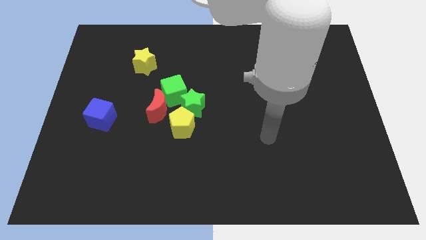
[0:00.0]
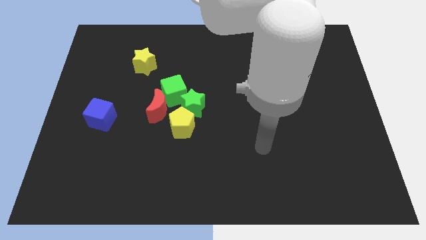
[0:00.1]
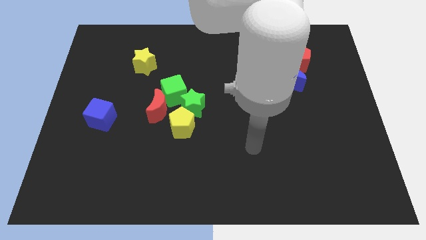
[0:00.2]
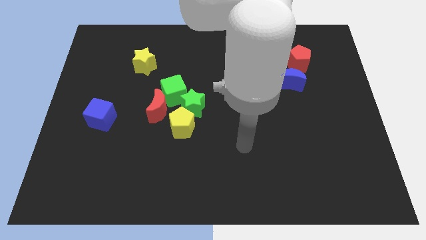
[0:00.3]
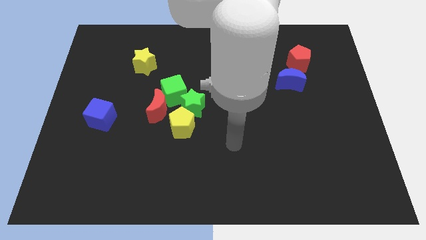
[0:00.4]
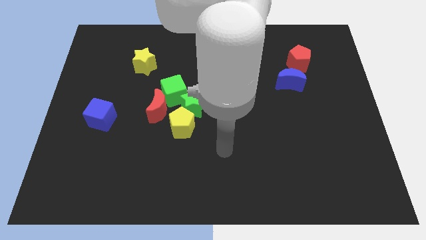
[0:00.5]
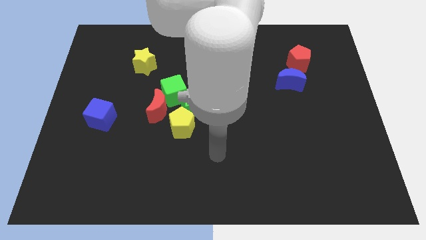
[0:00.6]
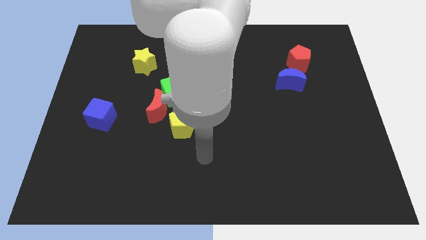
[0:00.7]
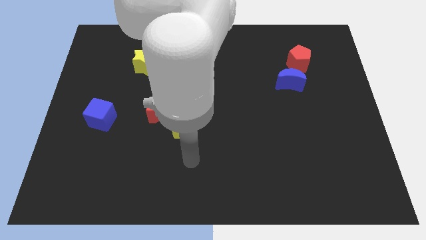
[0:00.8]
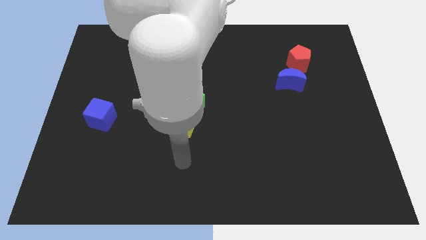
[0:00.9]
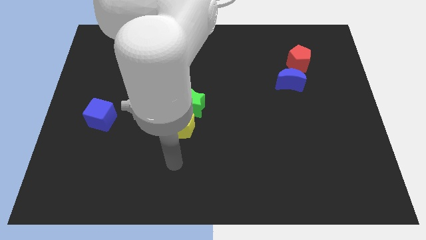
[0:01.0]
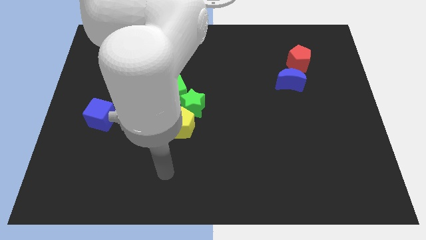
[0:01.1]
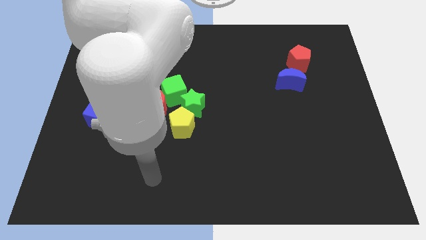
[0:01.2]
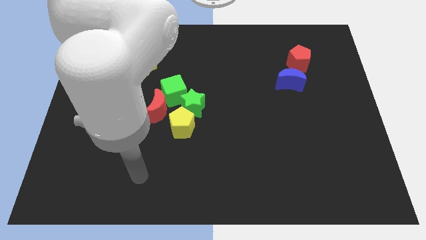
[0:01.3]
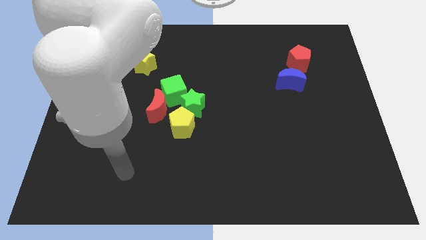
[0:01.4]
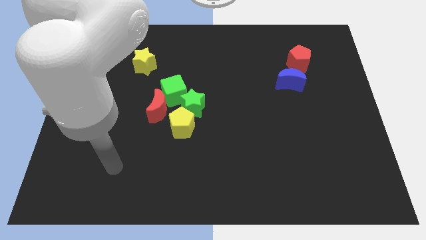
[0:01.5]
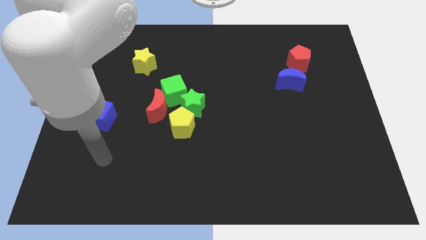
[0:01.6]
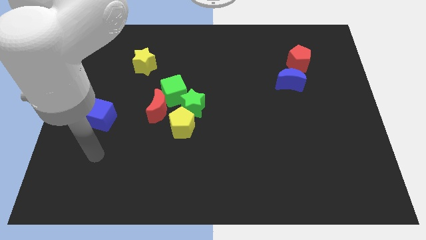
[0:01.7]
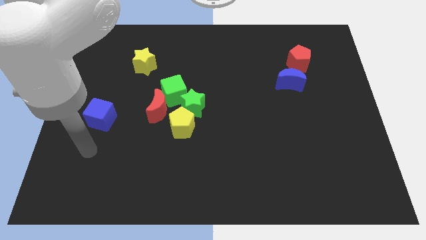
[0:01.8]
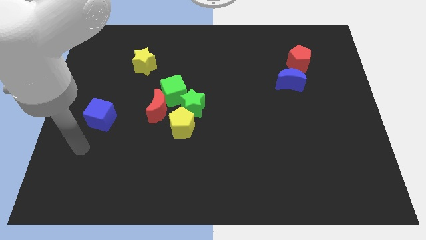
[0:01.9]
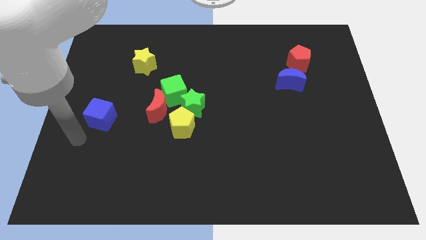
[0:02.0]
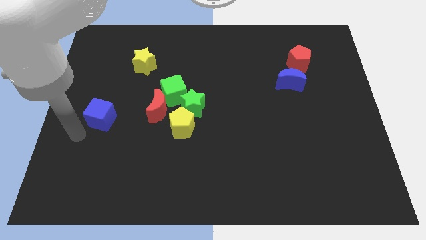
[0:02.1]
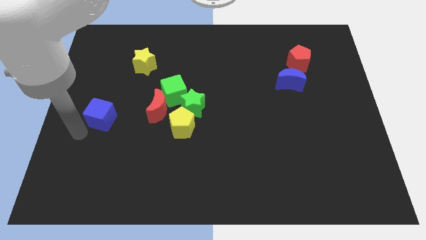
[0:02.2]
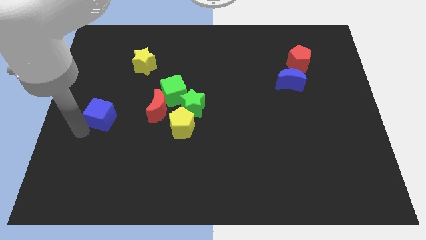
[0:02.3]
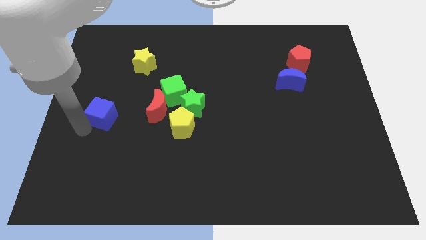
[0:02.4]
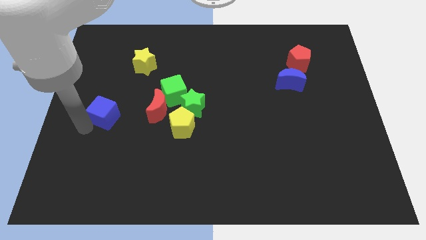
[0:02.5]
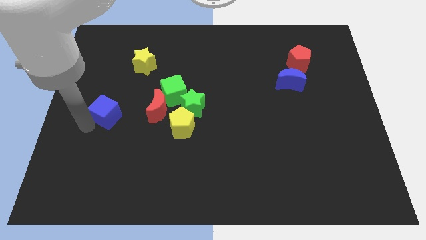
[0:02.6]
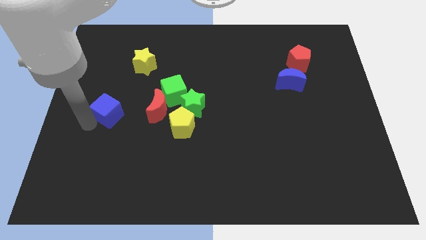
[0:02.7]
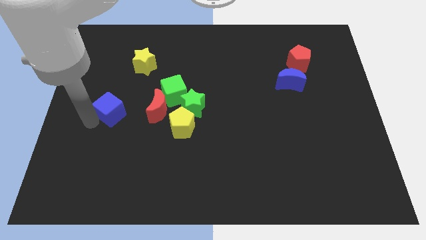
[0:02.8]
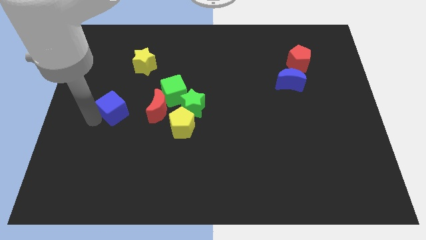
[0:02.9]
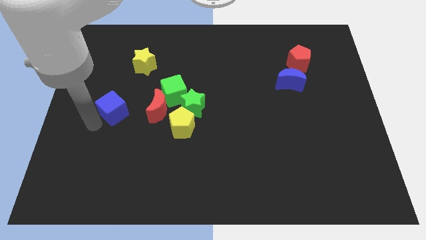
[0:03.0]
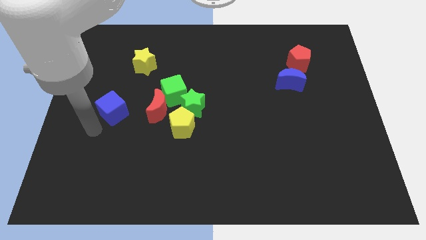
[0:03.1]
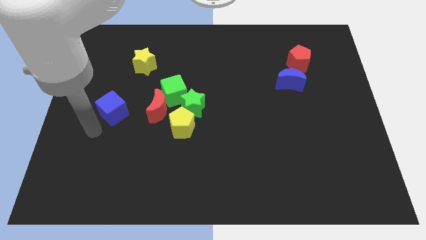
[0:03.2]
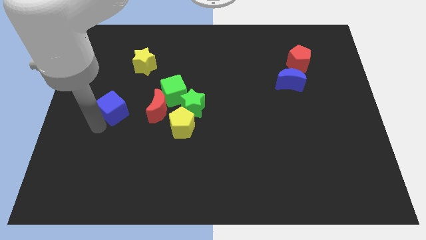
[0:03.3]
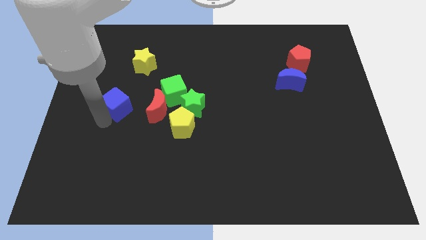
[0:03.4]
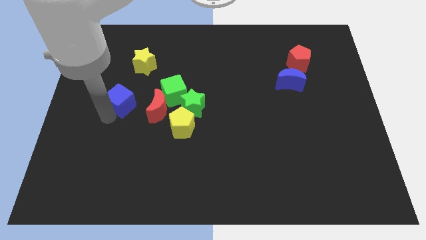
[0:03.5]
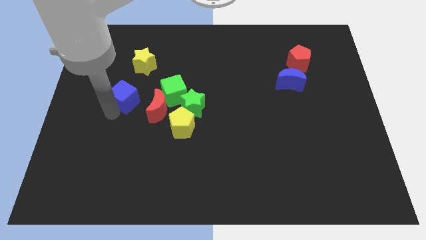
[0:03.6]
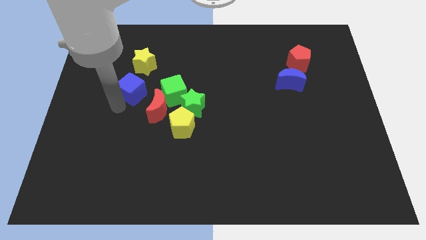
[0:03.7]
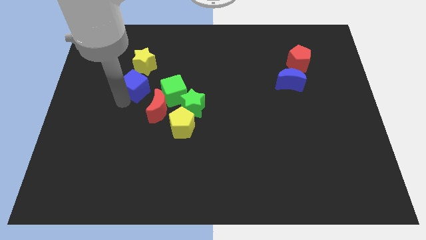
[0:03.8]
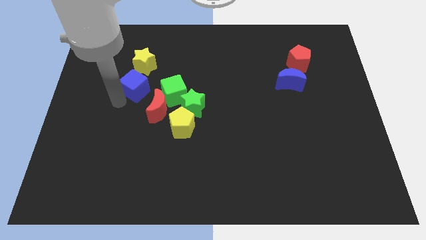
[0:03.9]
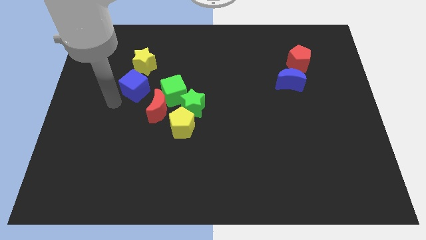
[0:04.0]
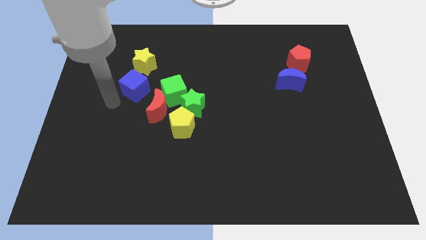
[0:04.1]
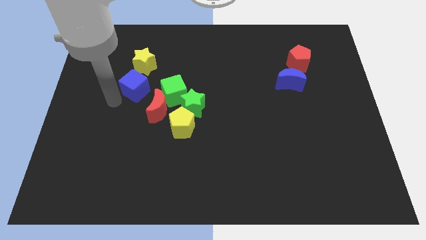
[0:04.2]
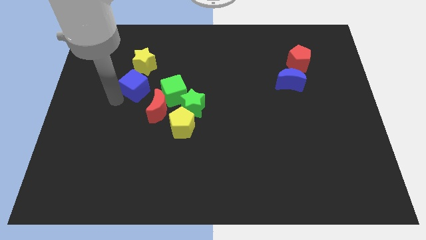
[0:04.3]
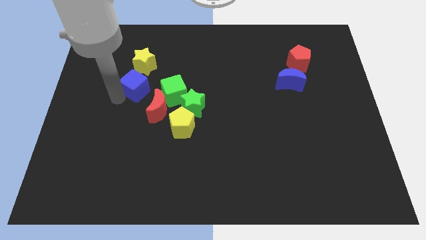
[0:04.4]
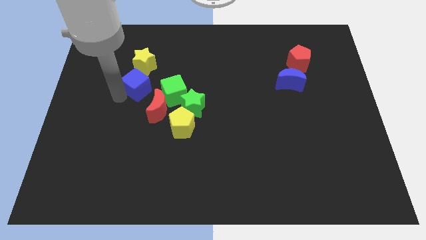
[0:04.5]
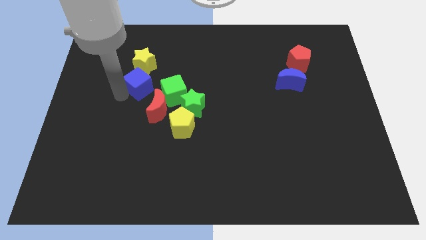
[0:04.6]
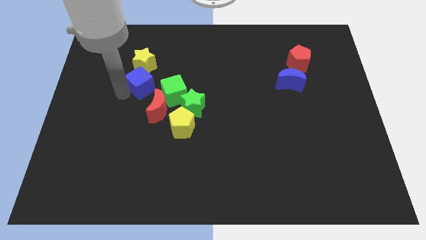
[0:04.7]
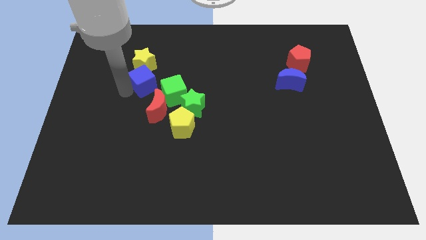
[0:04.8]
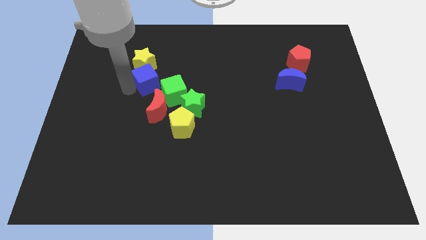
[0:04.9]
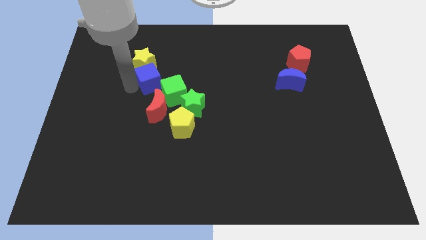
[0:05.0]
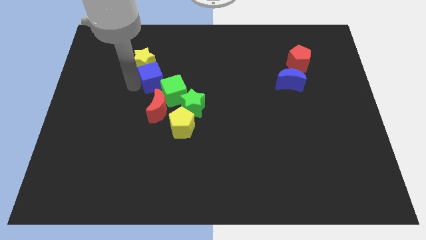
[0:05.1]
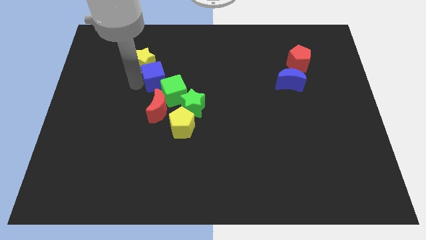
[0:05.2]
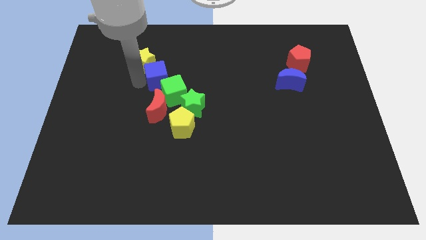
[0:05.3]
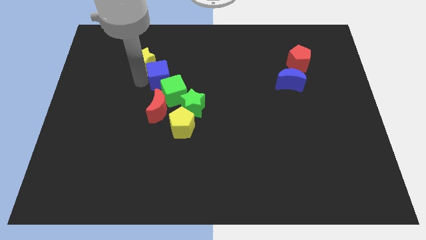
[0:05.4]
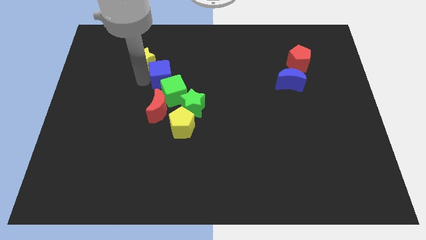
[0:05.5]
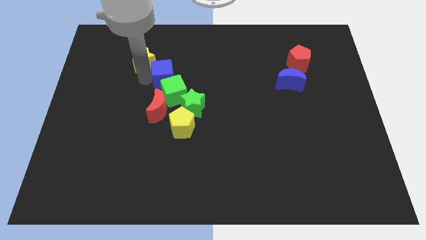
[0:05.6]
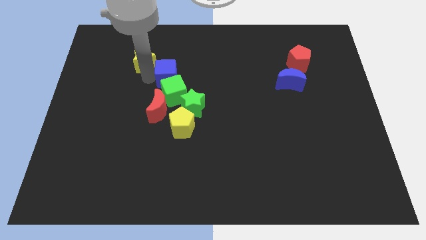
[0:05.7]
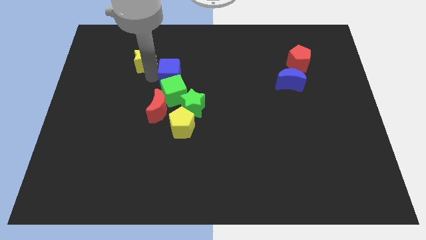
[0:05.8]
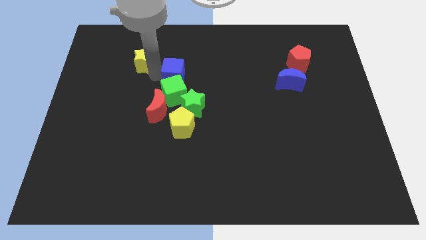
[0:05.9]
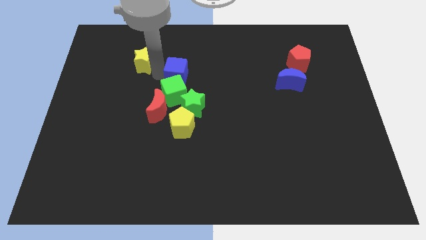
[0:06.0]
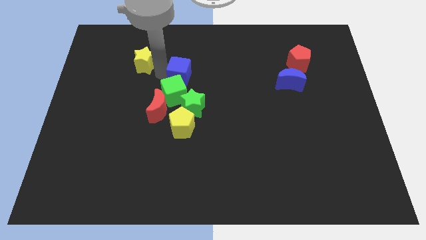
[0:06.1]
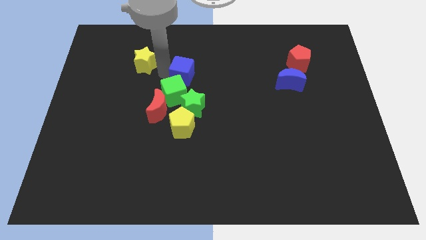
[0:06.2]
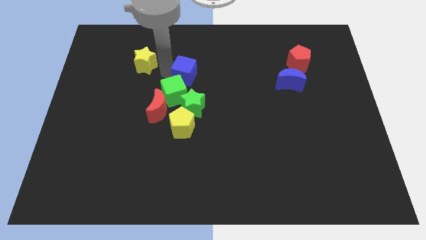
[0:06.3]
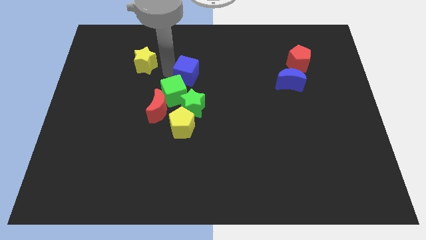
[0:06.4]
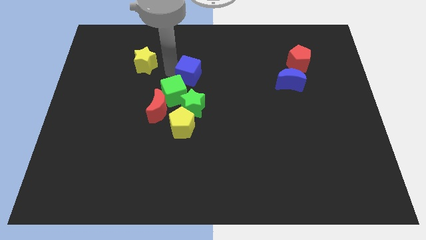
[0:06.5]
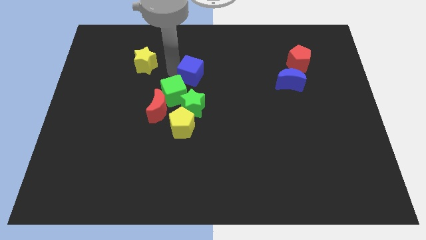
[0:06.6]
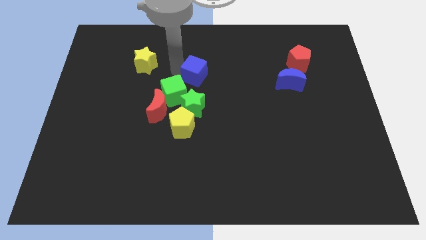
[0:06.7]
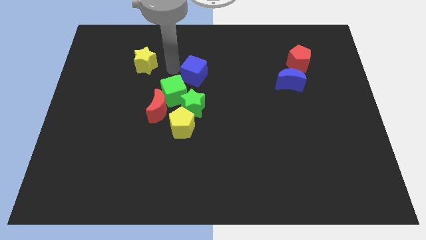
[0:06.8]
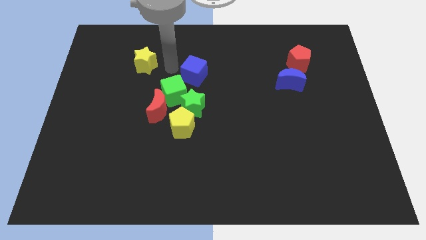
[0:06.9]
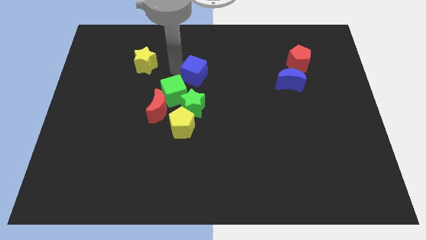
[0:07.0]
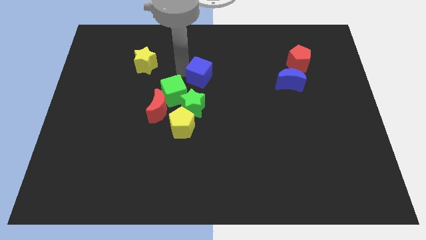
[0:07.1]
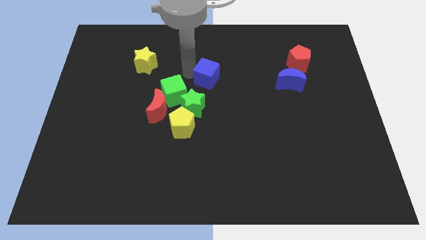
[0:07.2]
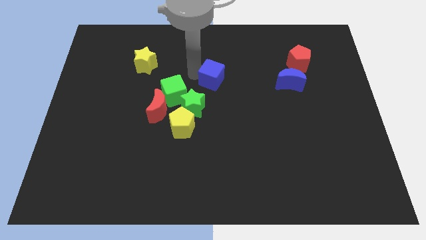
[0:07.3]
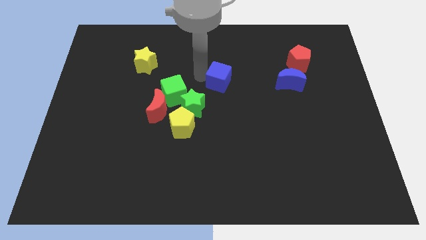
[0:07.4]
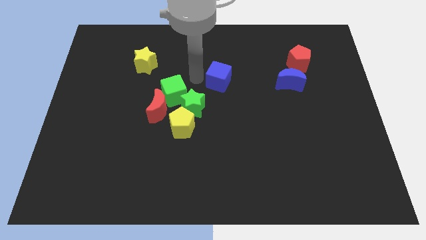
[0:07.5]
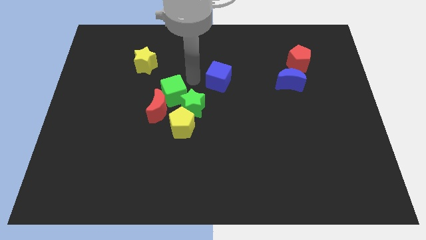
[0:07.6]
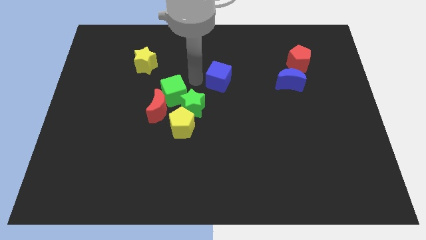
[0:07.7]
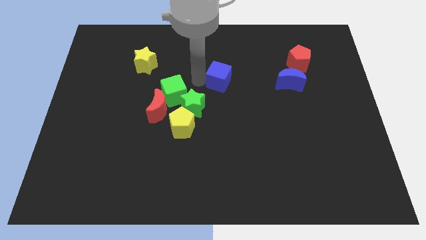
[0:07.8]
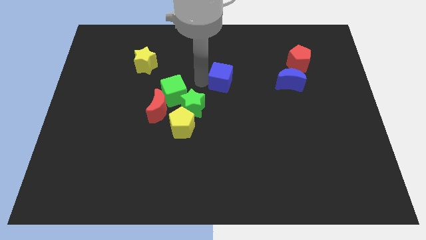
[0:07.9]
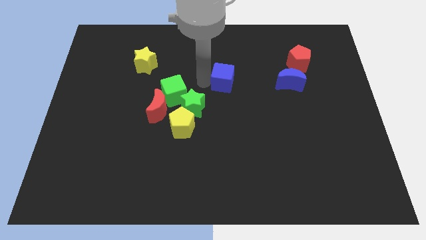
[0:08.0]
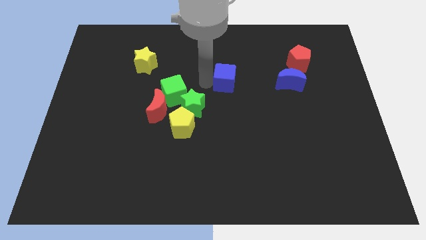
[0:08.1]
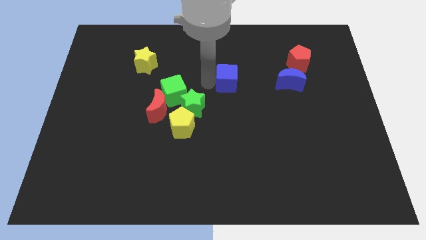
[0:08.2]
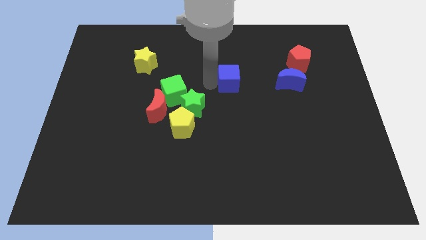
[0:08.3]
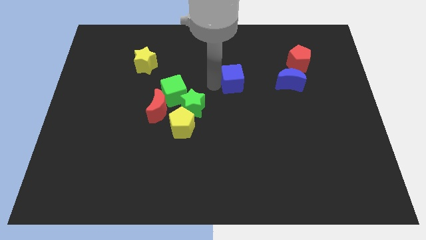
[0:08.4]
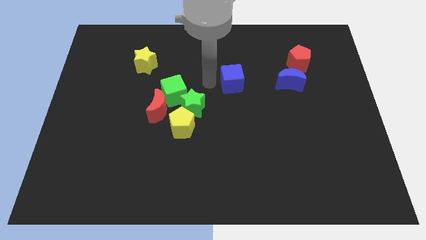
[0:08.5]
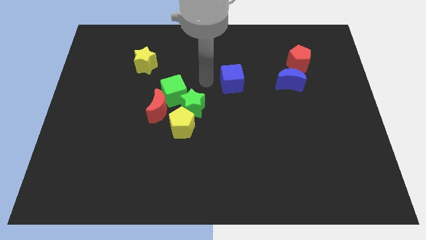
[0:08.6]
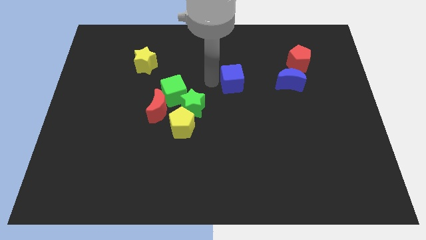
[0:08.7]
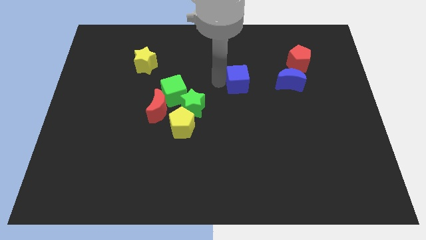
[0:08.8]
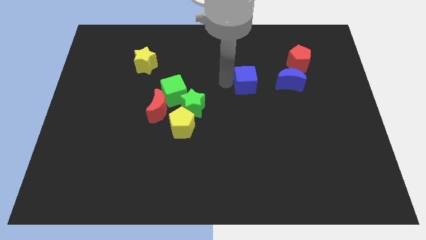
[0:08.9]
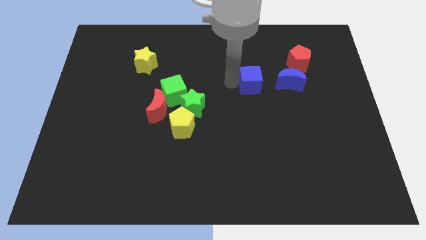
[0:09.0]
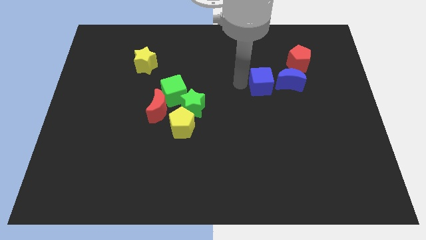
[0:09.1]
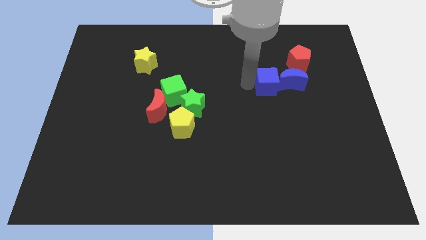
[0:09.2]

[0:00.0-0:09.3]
push the blue cube to the blue moon
